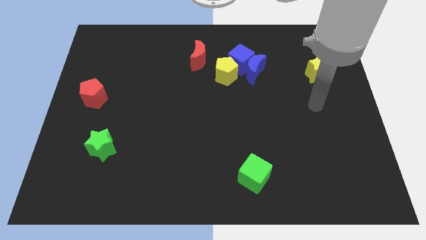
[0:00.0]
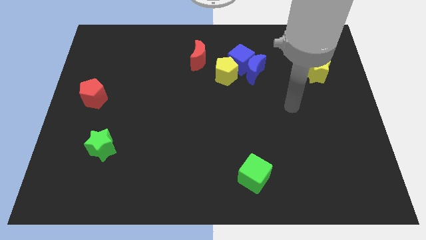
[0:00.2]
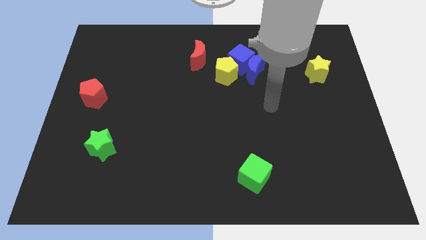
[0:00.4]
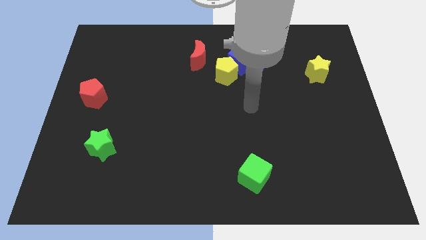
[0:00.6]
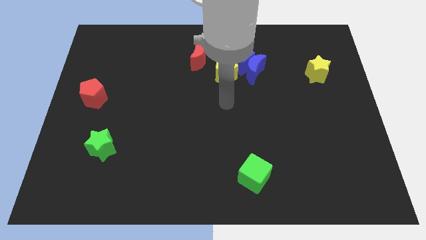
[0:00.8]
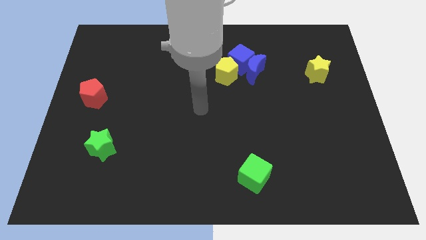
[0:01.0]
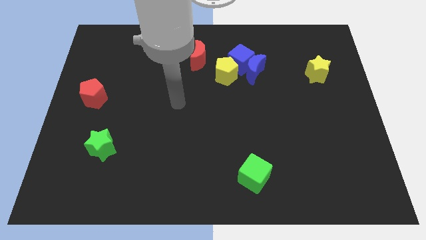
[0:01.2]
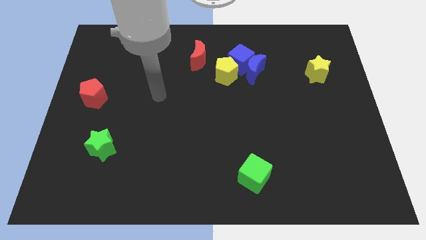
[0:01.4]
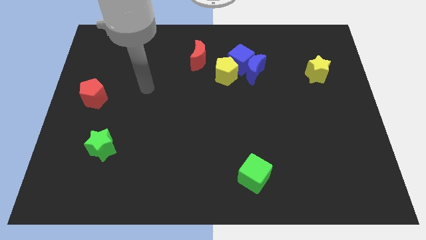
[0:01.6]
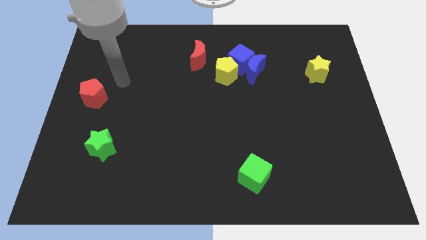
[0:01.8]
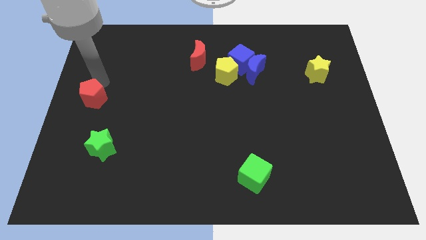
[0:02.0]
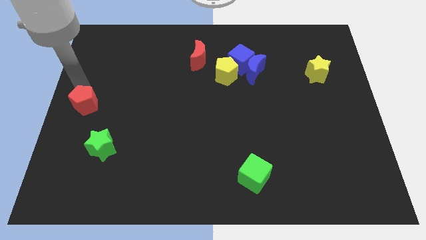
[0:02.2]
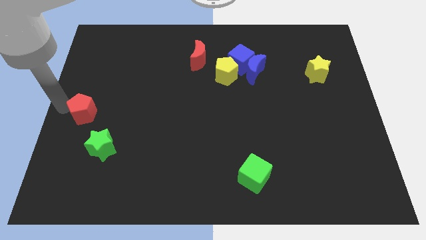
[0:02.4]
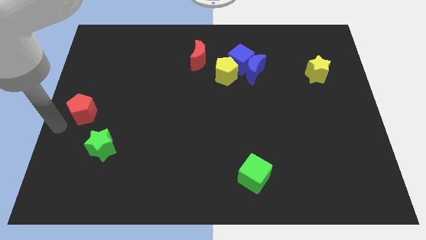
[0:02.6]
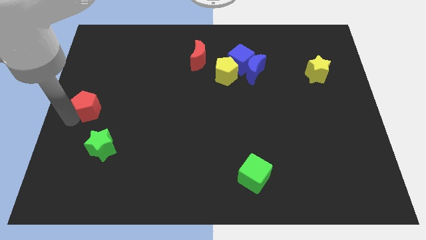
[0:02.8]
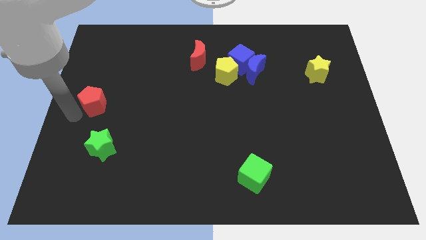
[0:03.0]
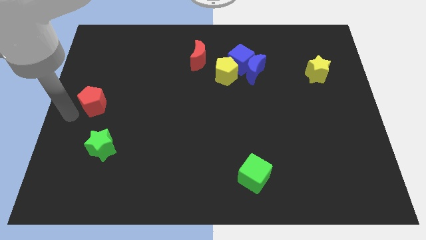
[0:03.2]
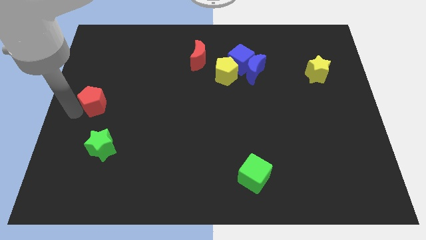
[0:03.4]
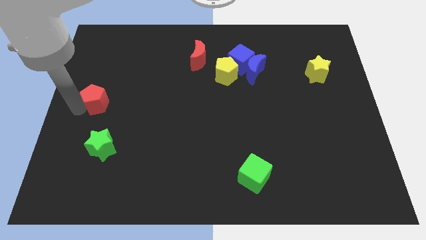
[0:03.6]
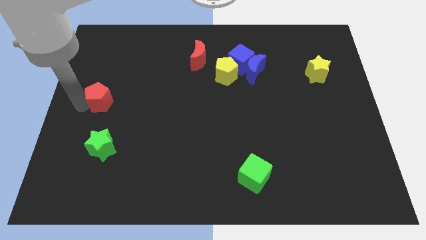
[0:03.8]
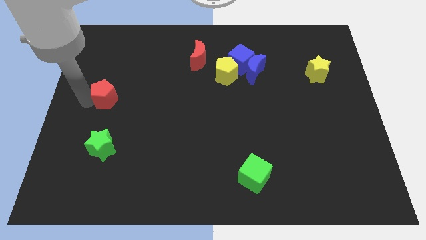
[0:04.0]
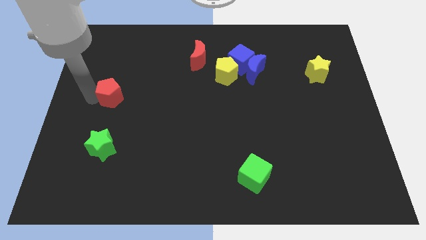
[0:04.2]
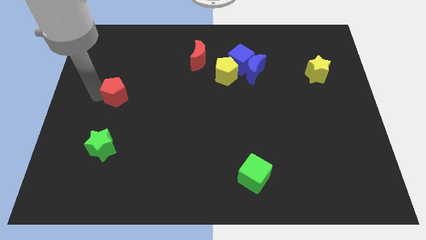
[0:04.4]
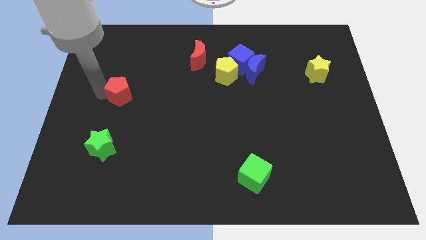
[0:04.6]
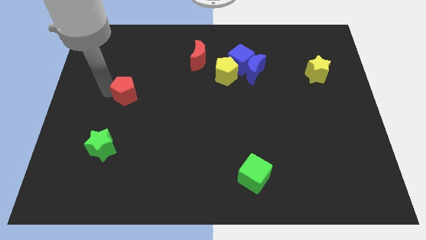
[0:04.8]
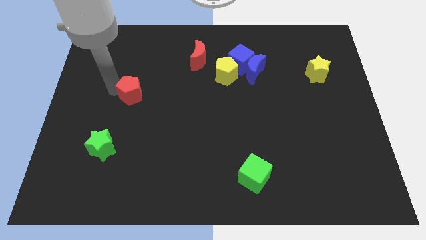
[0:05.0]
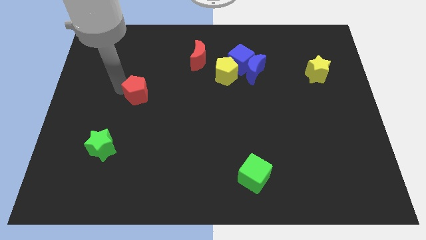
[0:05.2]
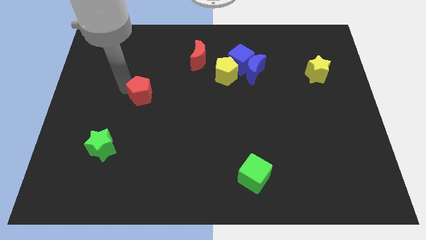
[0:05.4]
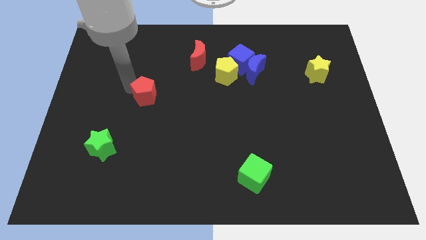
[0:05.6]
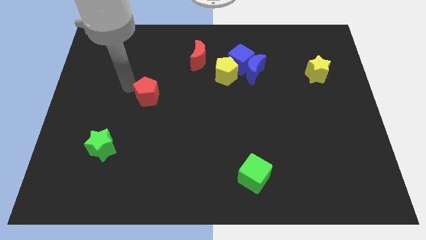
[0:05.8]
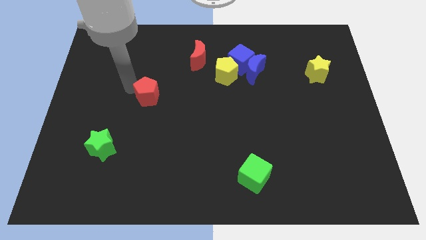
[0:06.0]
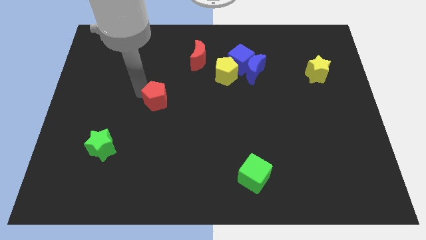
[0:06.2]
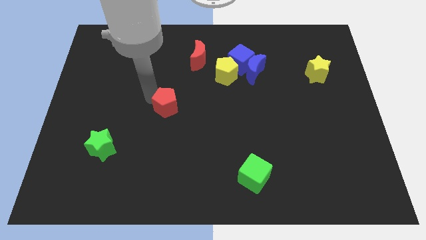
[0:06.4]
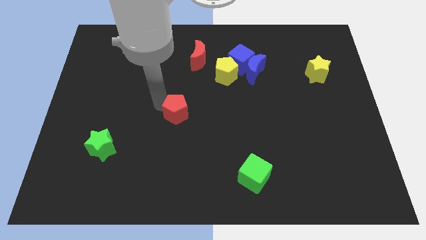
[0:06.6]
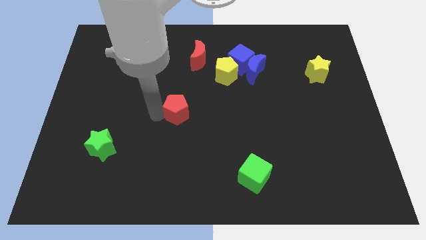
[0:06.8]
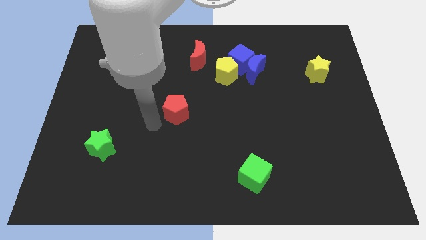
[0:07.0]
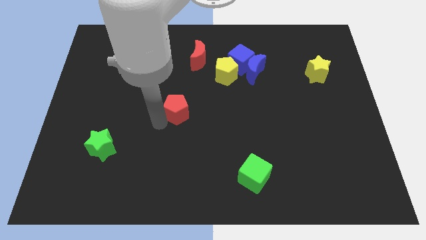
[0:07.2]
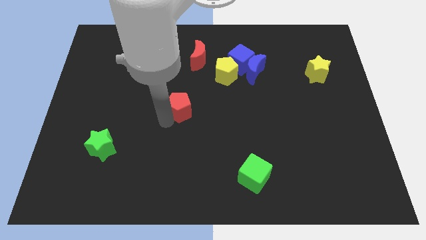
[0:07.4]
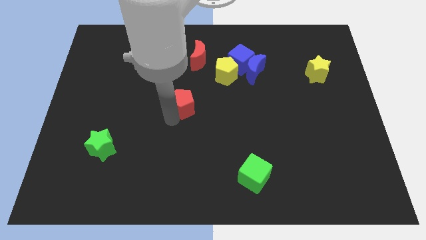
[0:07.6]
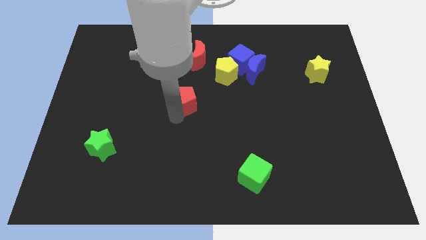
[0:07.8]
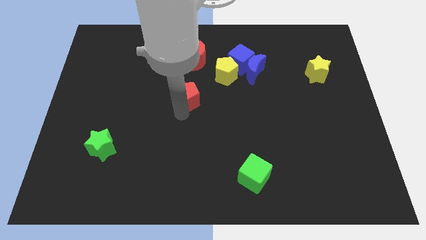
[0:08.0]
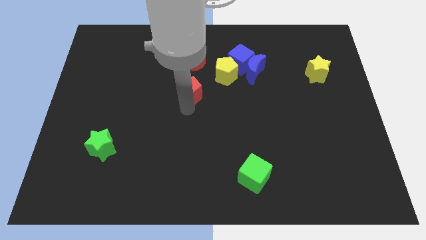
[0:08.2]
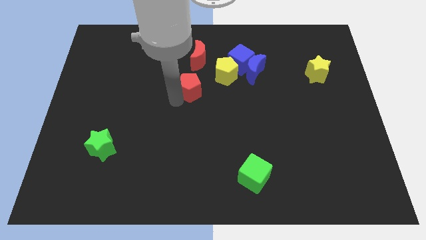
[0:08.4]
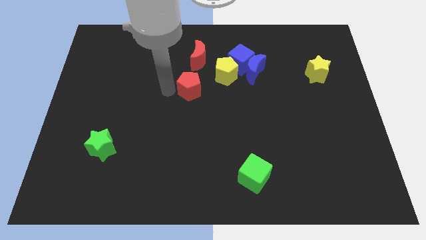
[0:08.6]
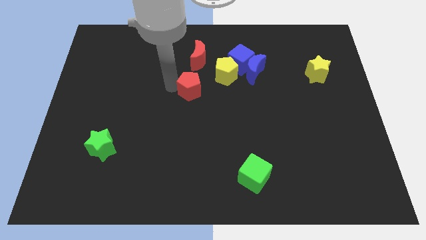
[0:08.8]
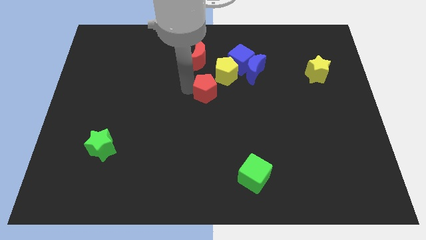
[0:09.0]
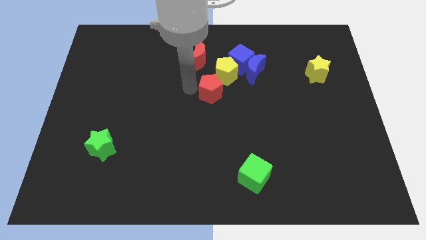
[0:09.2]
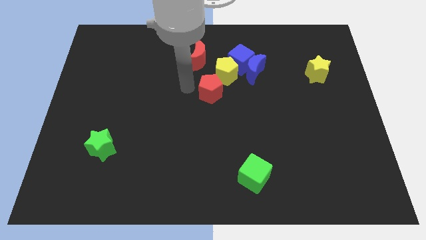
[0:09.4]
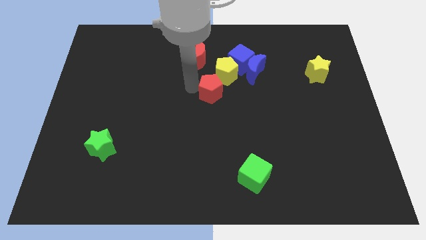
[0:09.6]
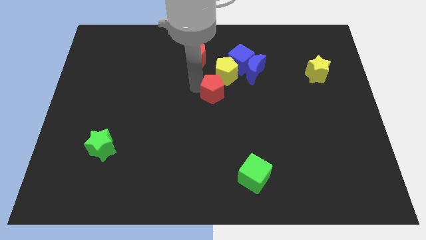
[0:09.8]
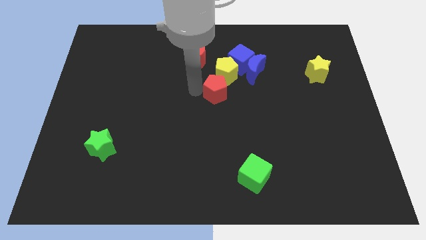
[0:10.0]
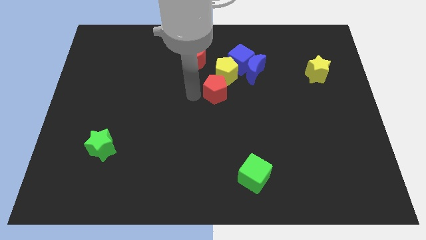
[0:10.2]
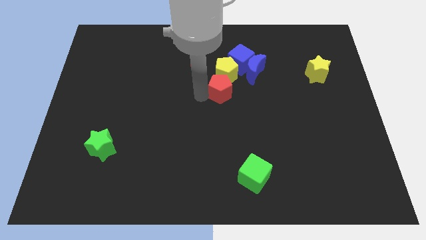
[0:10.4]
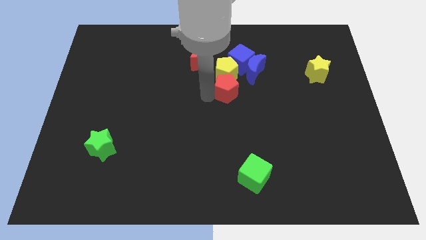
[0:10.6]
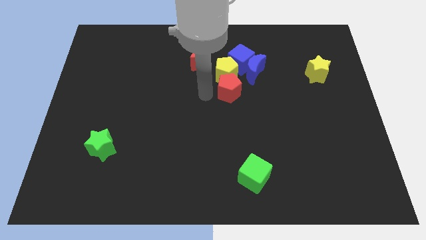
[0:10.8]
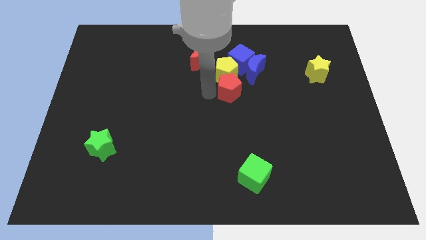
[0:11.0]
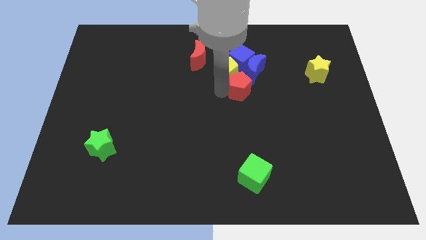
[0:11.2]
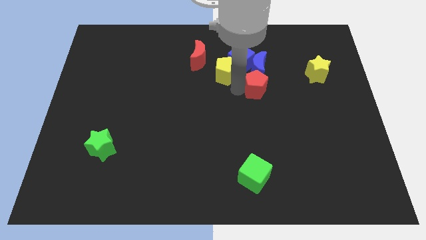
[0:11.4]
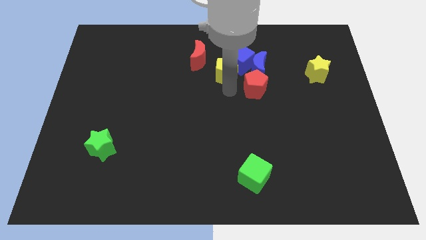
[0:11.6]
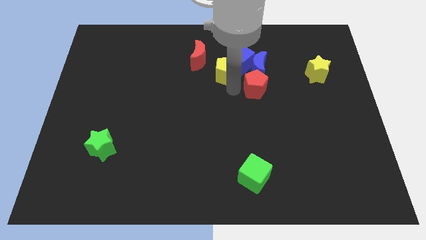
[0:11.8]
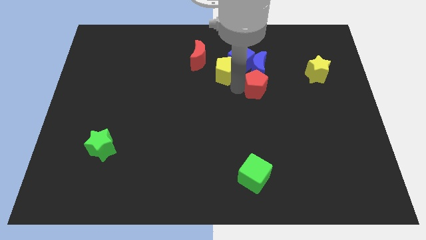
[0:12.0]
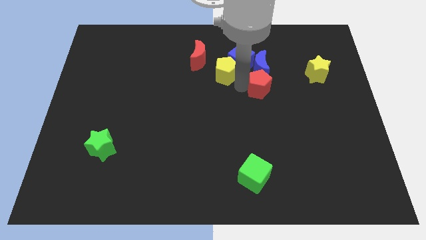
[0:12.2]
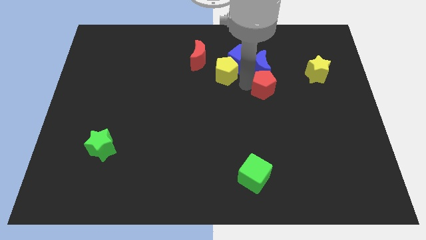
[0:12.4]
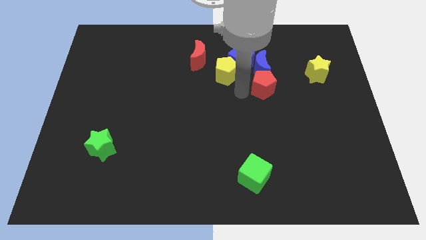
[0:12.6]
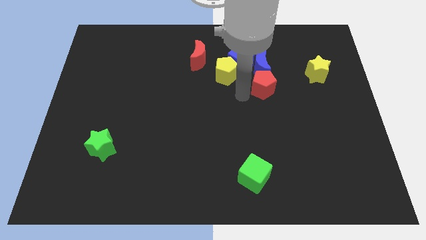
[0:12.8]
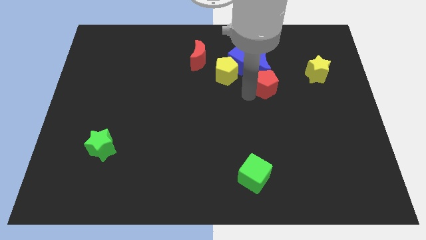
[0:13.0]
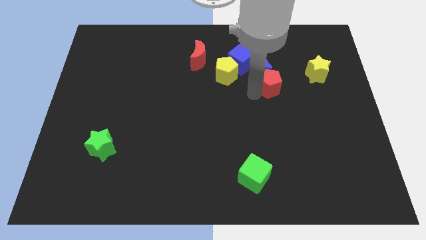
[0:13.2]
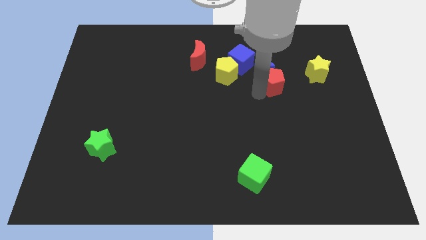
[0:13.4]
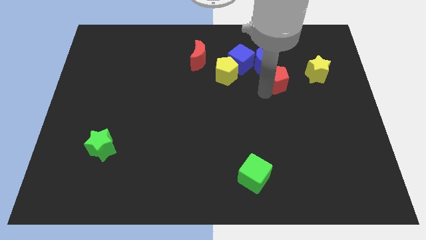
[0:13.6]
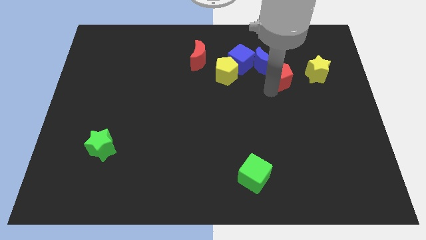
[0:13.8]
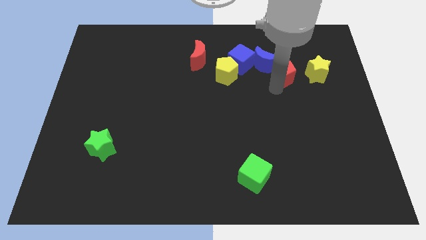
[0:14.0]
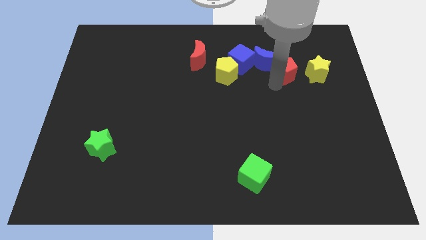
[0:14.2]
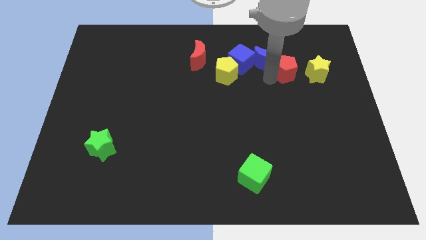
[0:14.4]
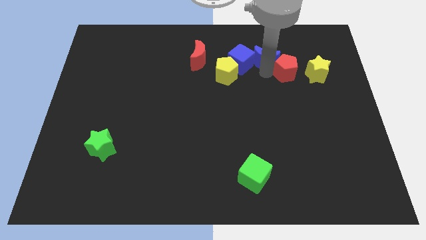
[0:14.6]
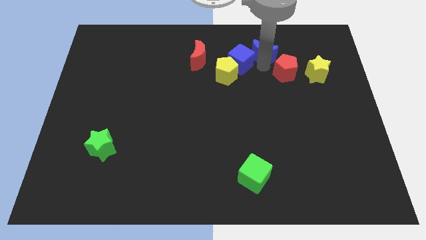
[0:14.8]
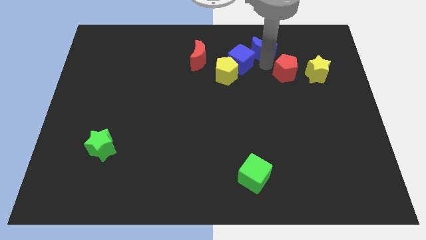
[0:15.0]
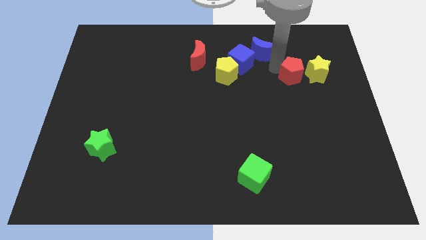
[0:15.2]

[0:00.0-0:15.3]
move the red pentagon close to the yellow star
